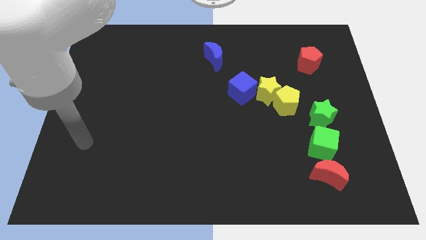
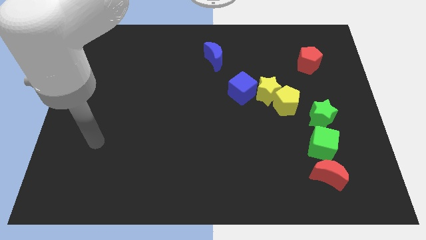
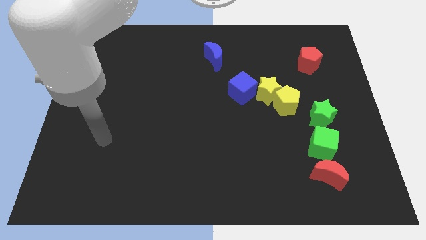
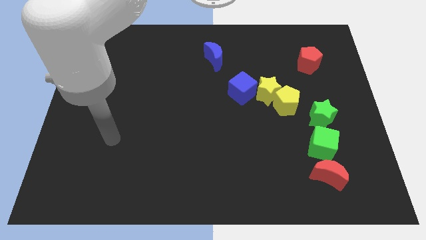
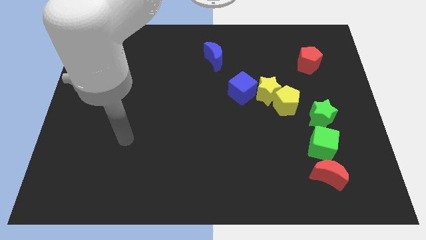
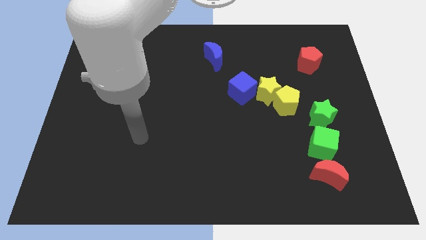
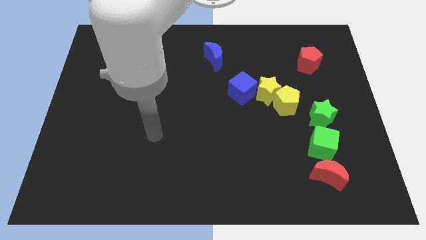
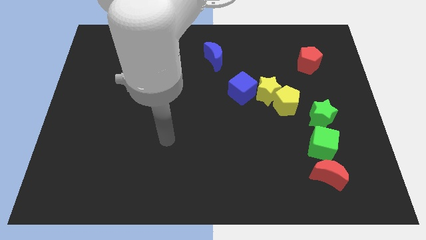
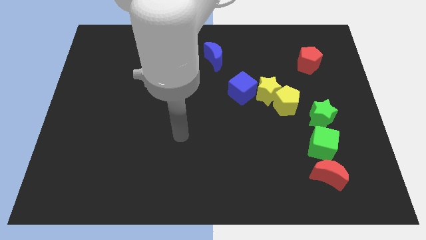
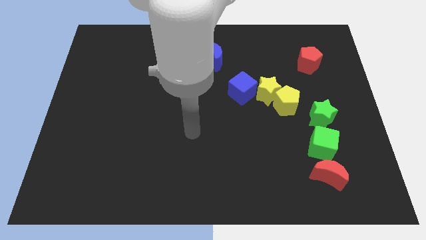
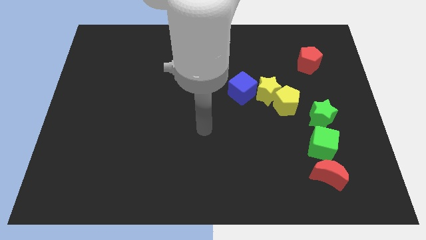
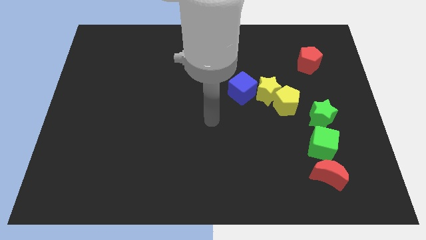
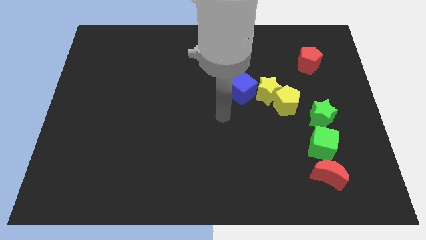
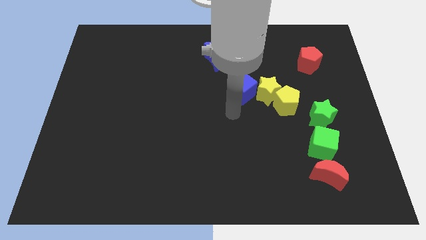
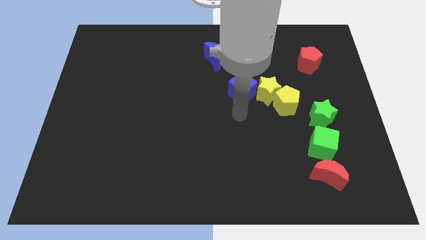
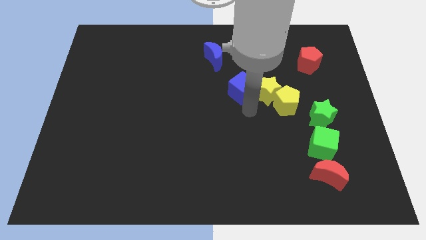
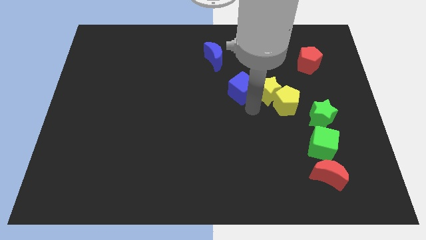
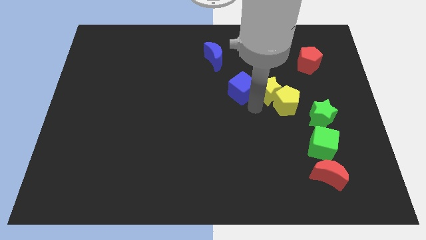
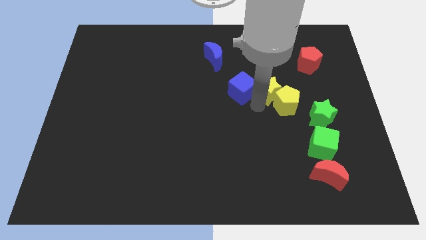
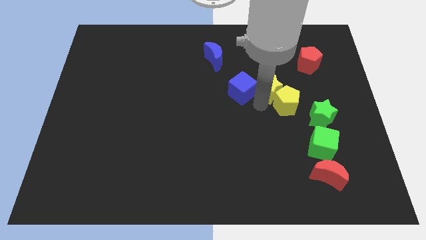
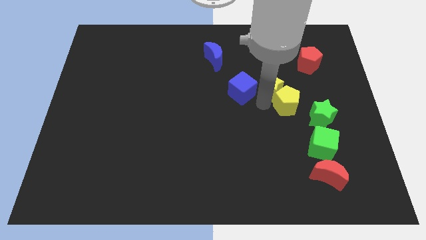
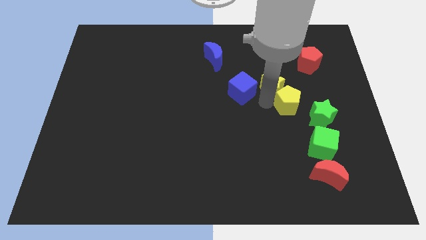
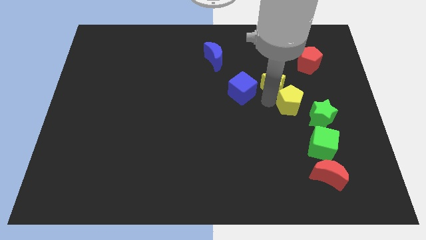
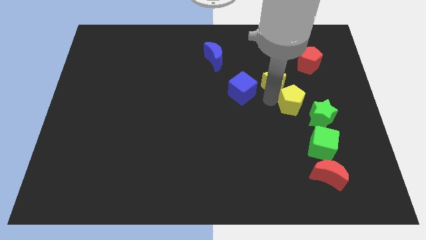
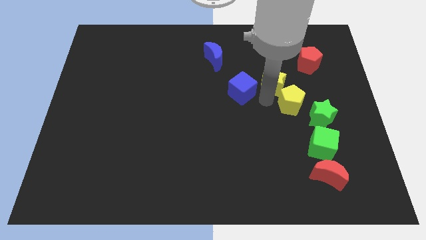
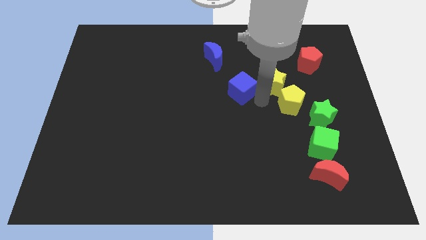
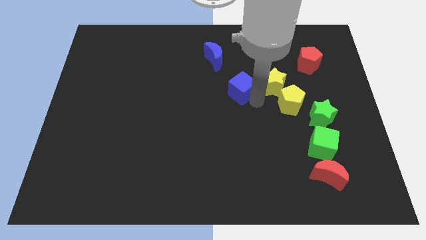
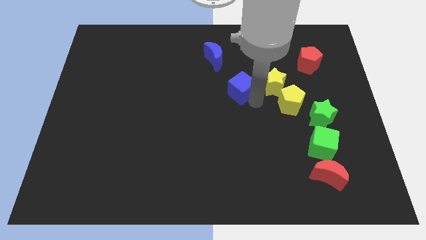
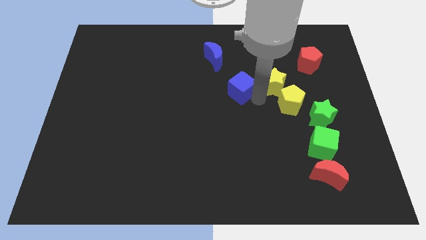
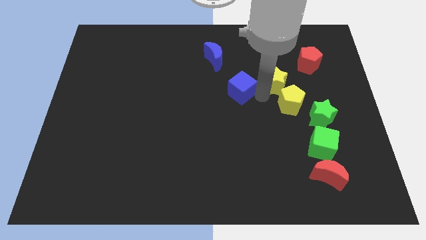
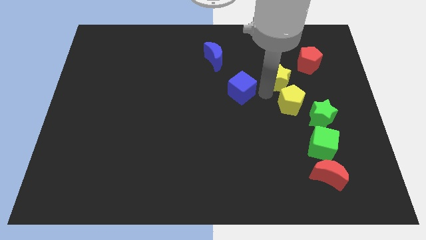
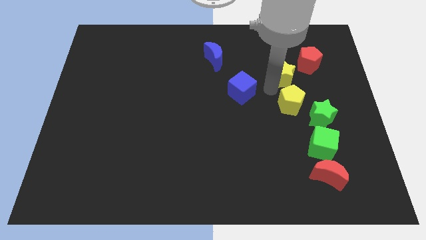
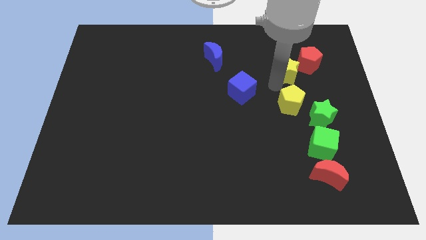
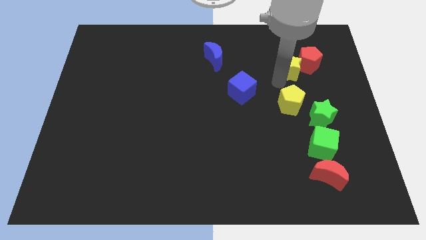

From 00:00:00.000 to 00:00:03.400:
move the yellow star away from the yellow pentagon and blue cube

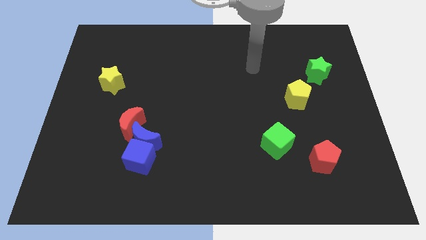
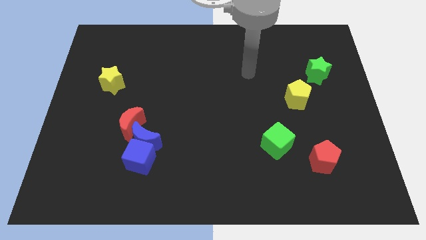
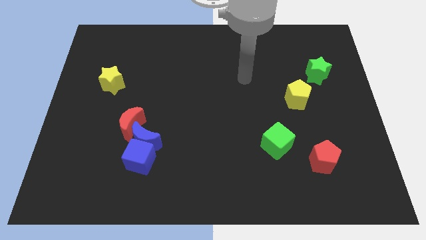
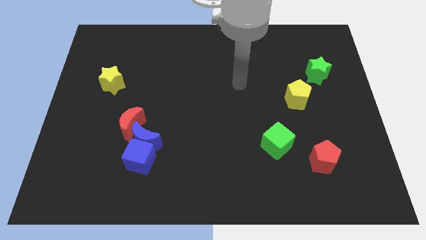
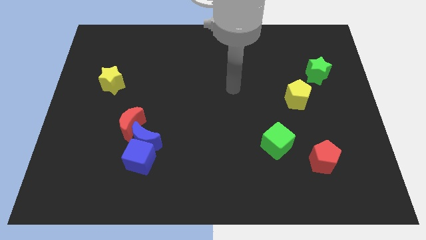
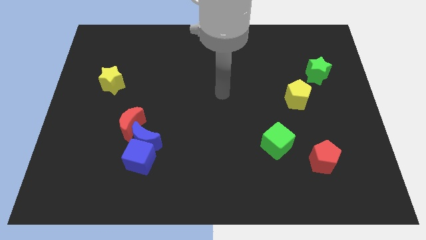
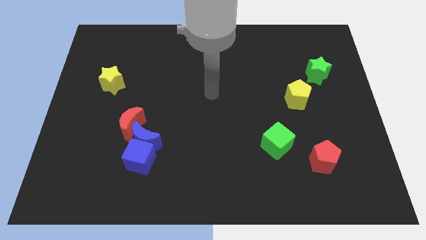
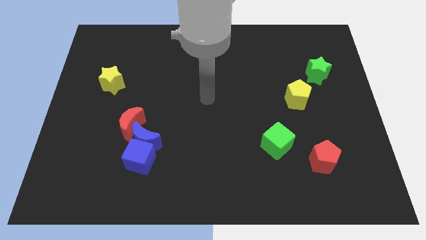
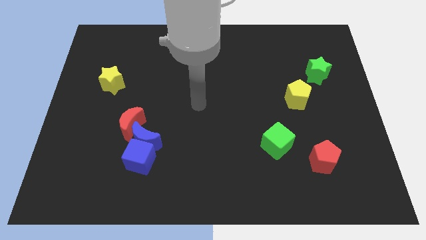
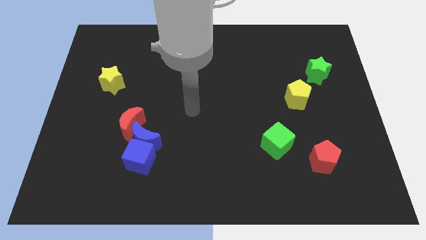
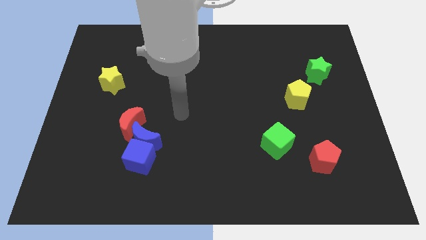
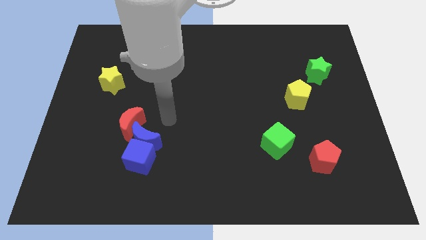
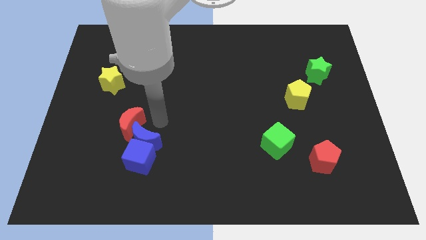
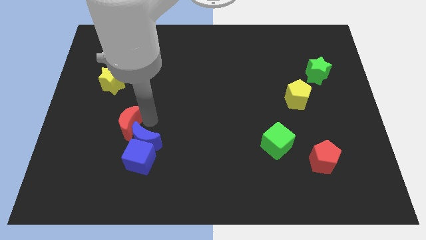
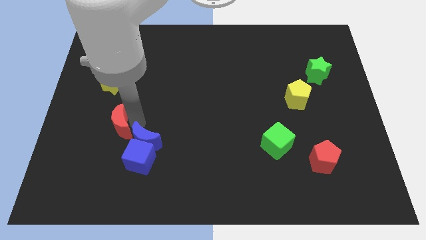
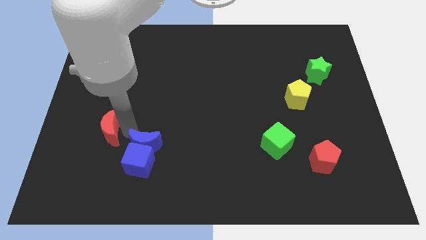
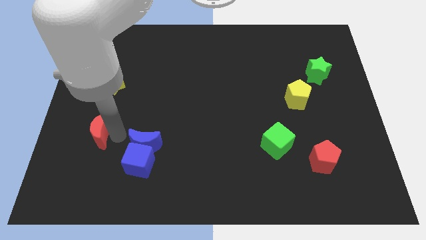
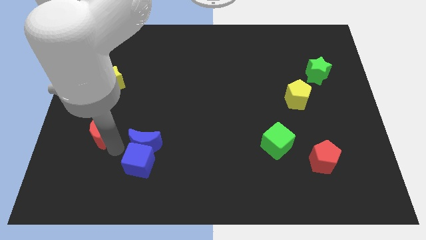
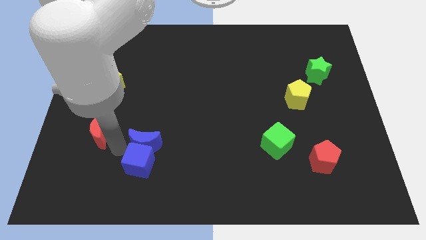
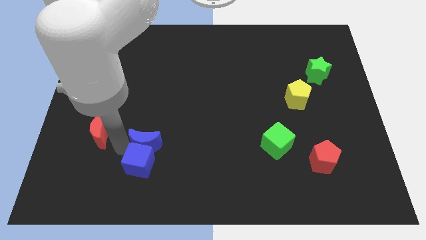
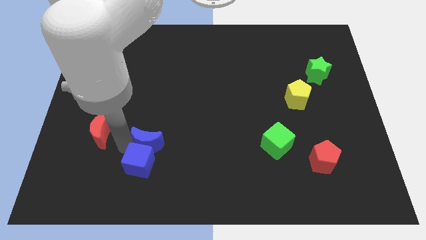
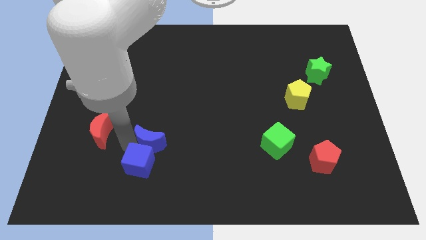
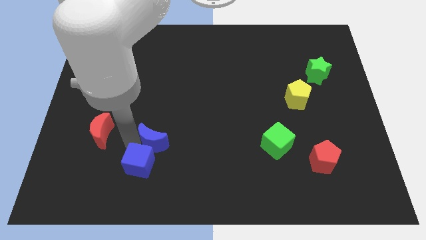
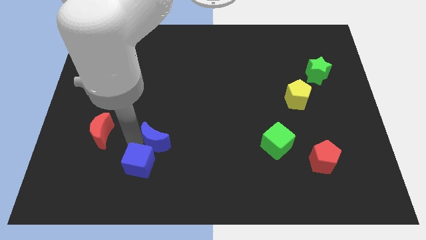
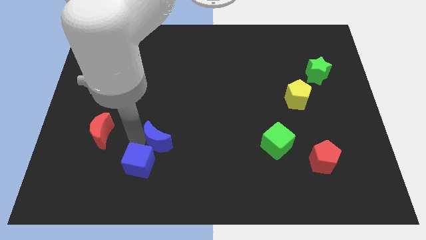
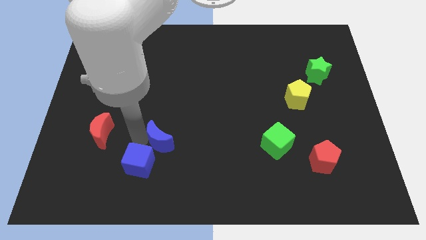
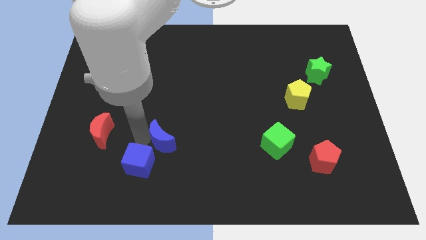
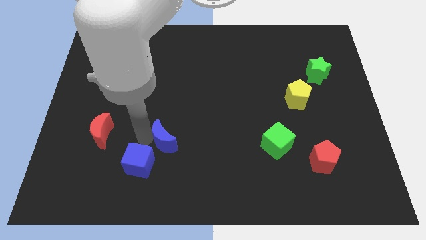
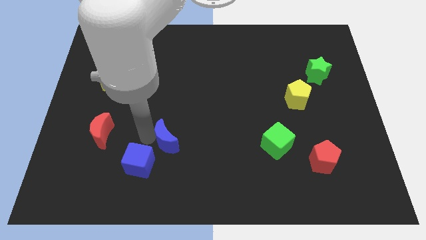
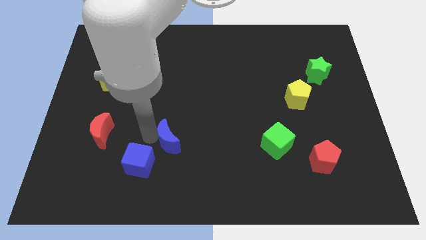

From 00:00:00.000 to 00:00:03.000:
separate the blue moon from the blue cube and red moon

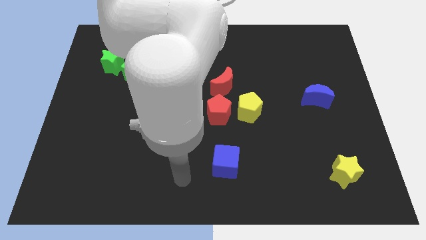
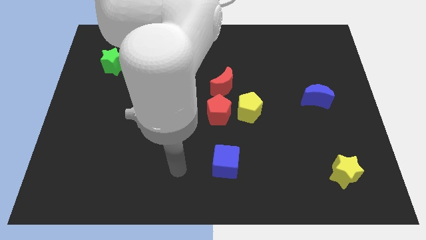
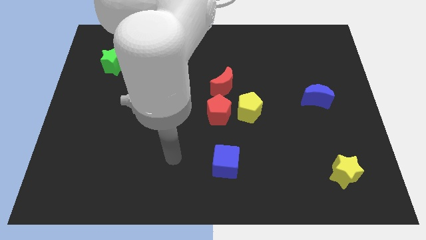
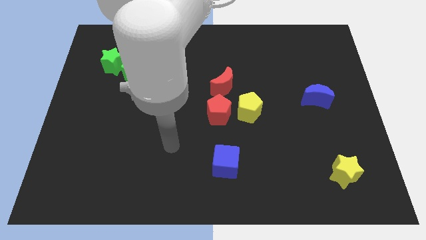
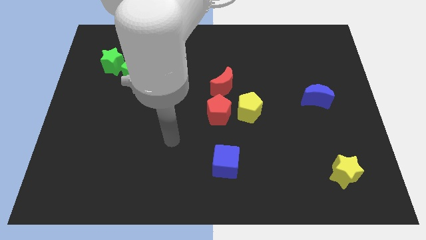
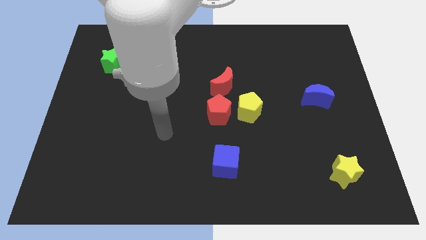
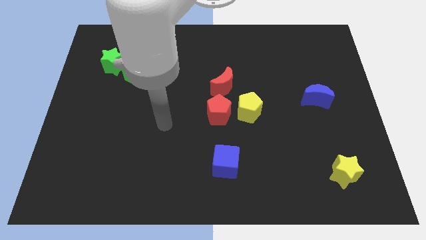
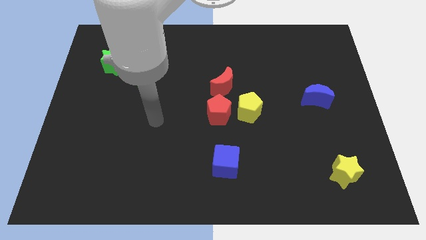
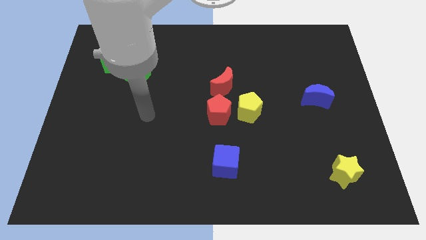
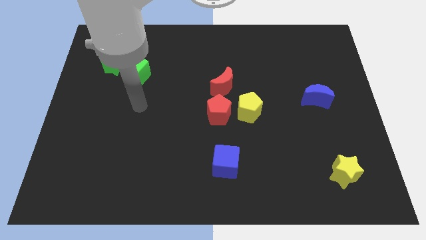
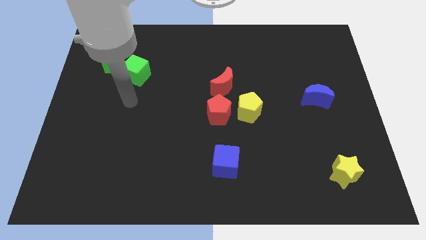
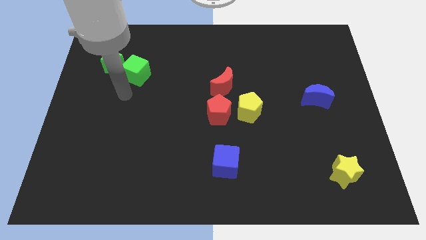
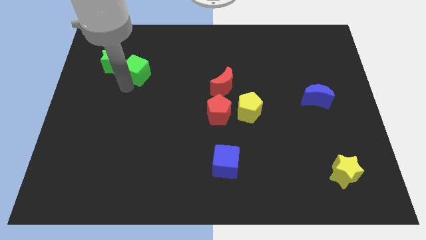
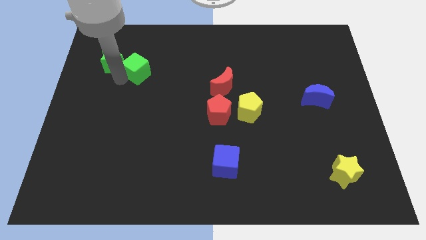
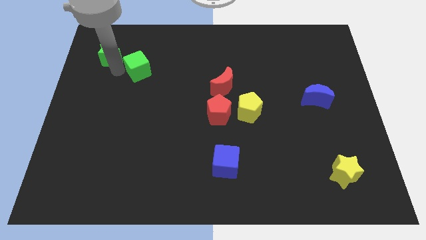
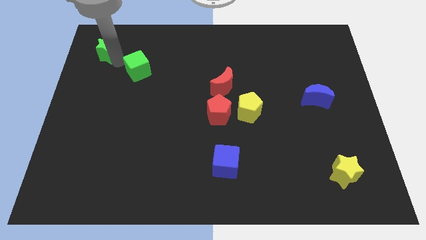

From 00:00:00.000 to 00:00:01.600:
move the green cube away from the green star

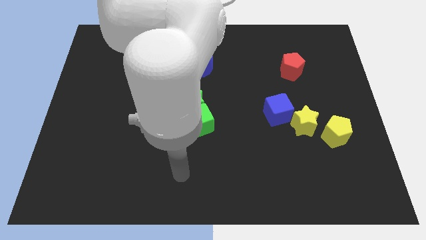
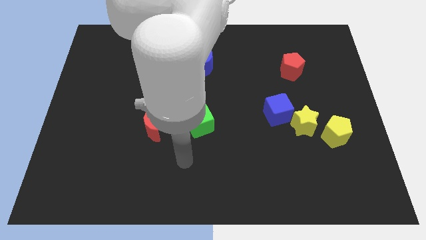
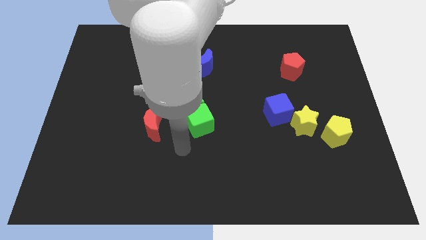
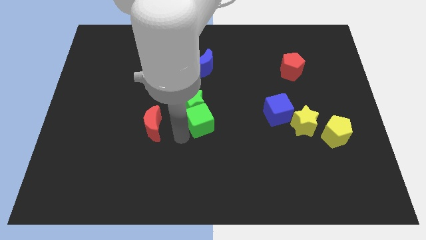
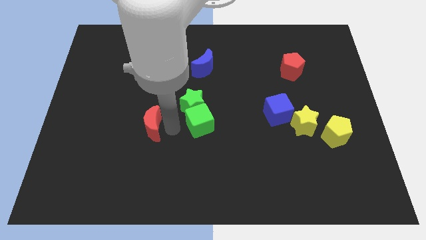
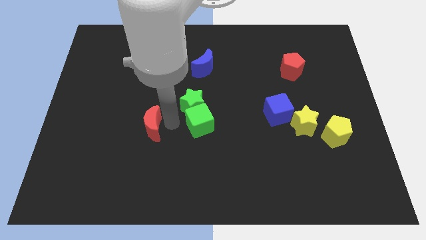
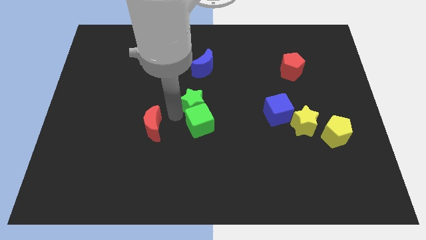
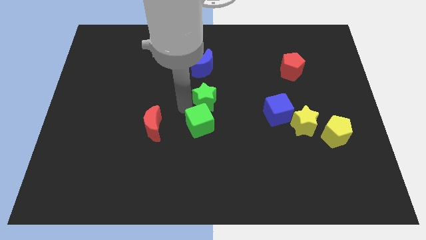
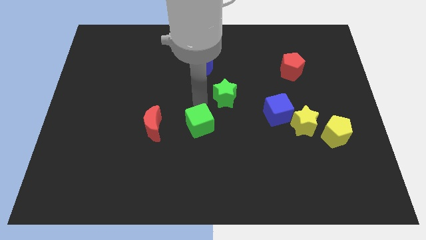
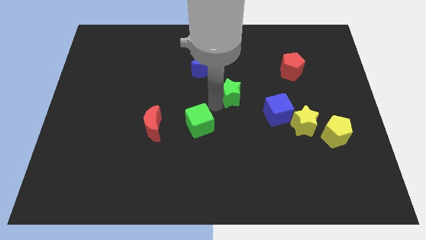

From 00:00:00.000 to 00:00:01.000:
pull the green cube apart from the green star

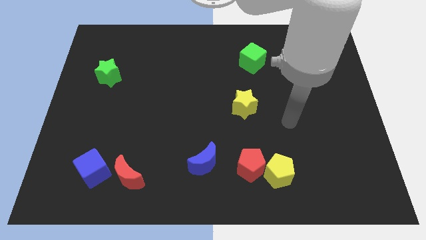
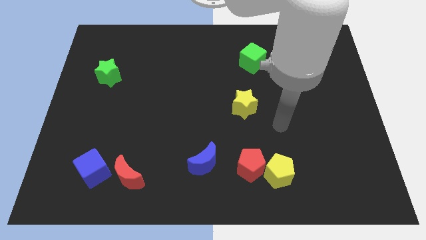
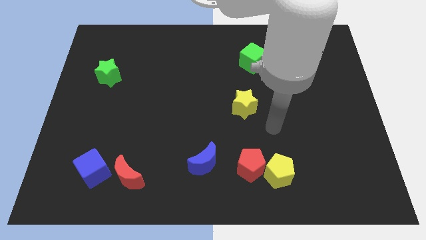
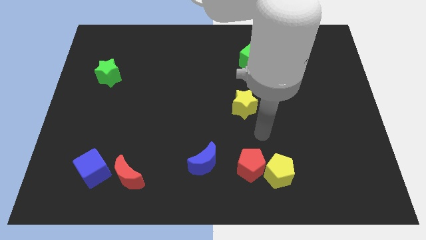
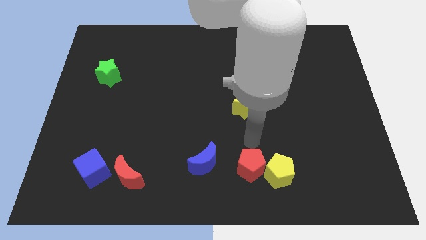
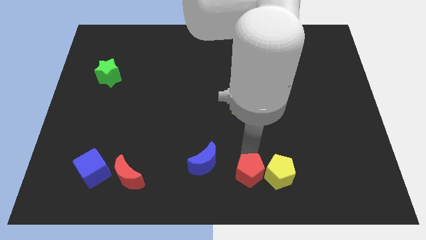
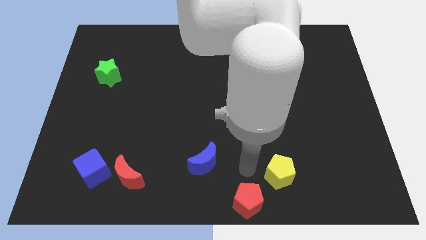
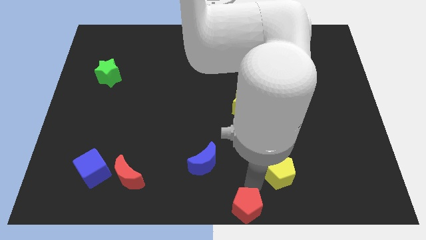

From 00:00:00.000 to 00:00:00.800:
pull the yellow pentagon apart from the red pentagon
